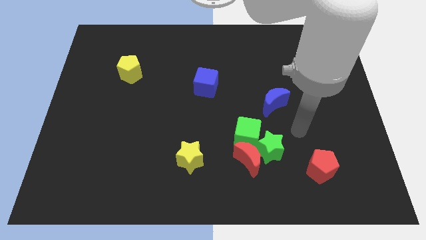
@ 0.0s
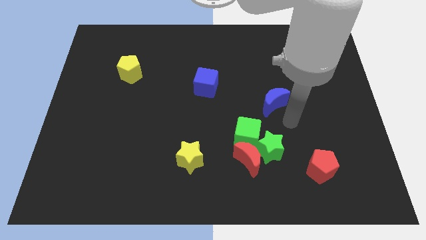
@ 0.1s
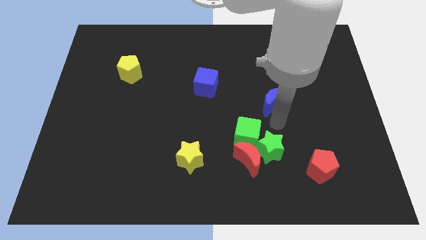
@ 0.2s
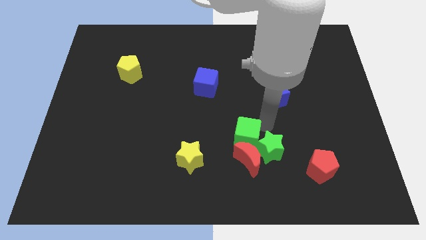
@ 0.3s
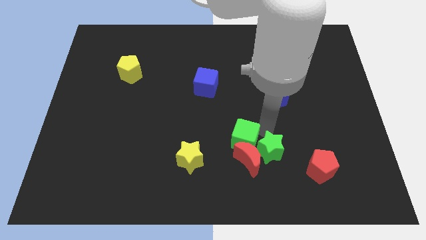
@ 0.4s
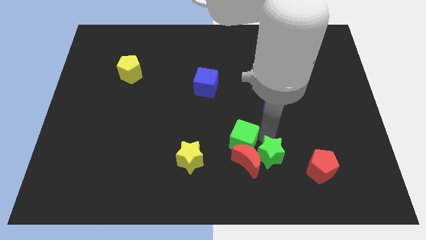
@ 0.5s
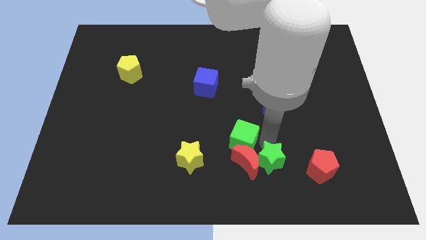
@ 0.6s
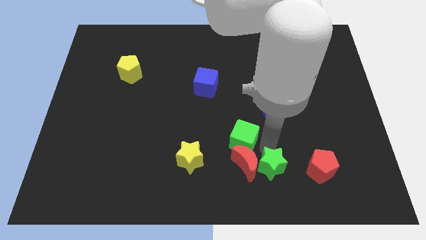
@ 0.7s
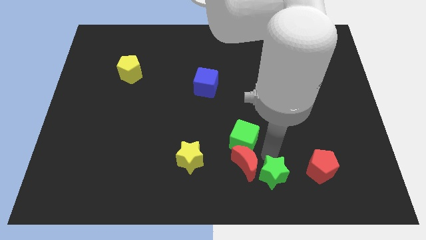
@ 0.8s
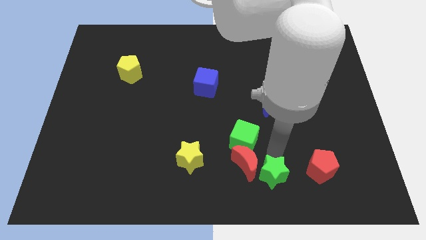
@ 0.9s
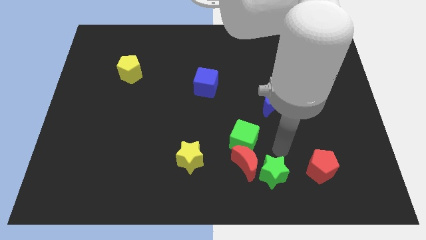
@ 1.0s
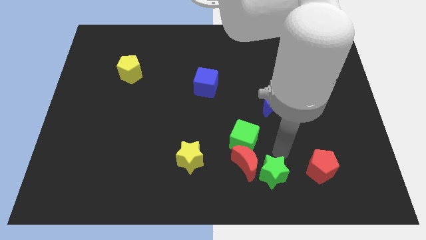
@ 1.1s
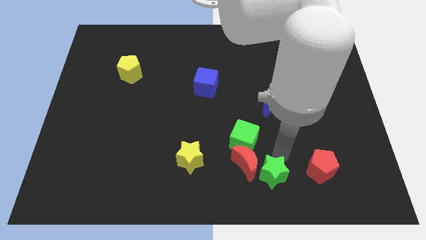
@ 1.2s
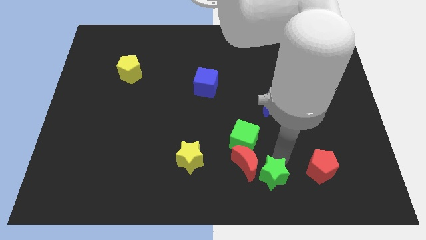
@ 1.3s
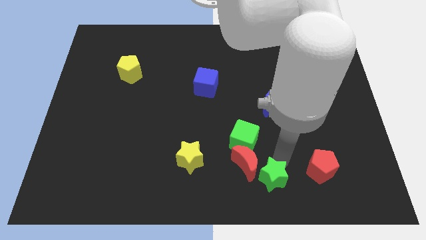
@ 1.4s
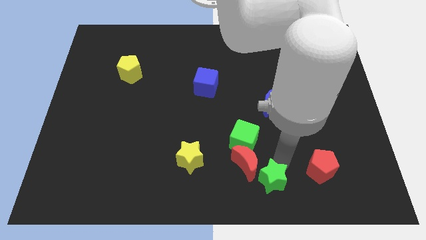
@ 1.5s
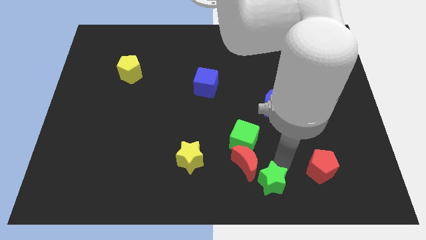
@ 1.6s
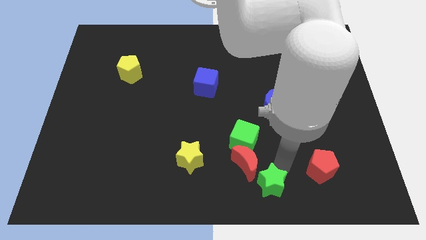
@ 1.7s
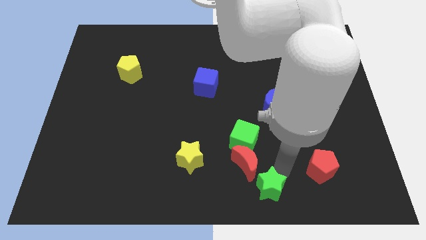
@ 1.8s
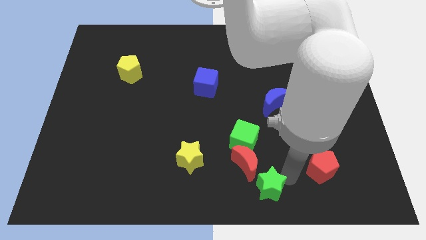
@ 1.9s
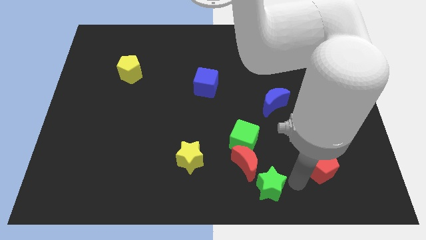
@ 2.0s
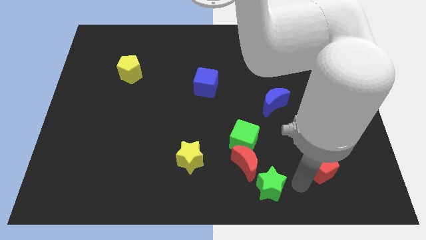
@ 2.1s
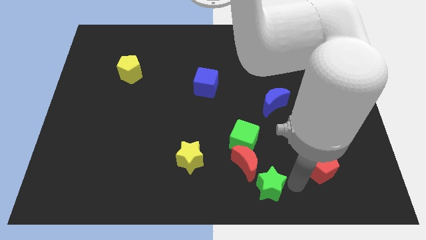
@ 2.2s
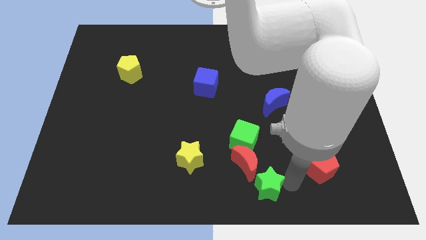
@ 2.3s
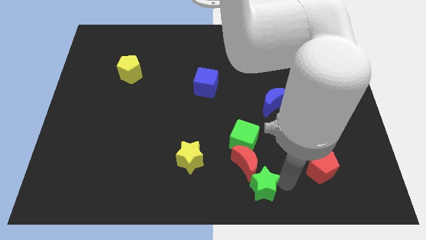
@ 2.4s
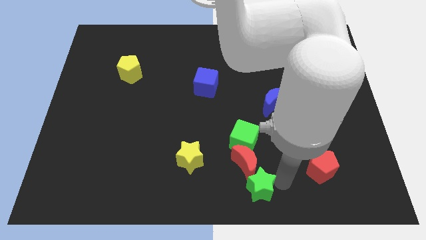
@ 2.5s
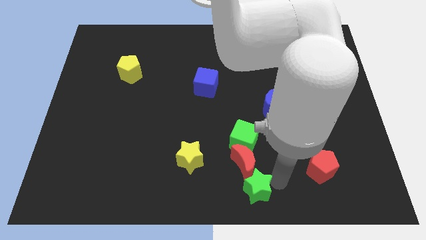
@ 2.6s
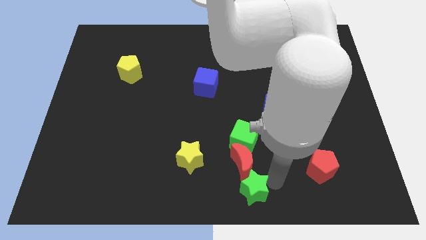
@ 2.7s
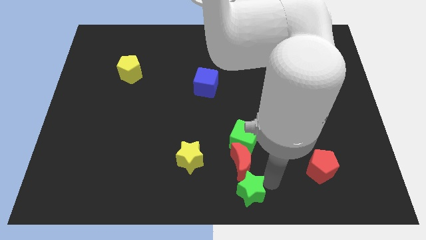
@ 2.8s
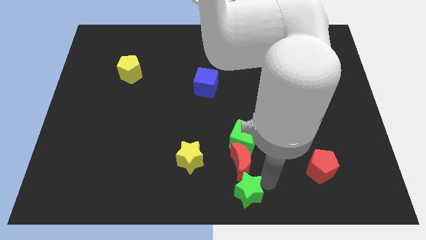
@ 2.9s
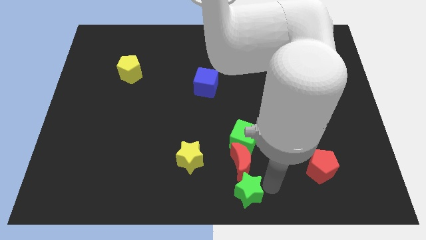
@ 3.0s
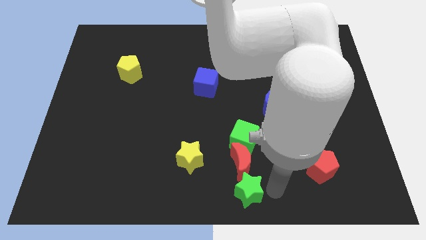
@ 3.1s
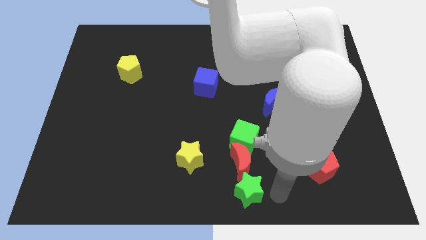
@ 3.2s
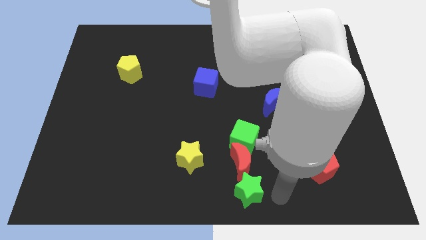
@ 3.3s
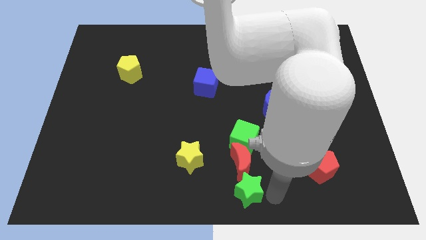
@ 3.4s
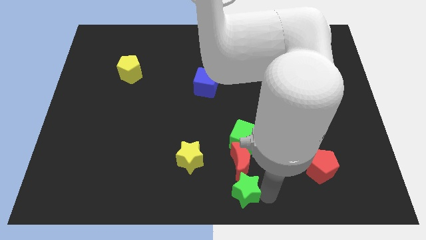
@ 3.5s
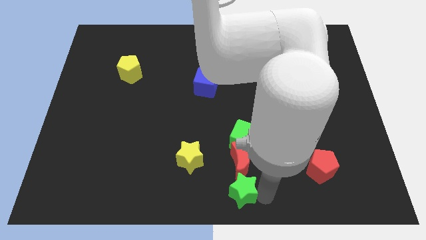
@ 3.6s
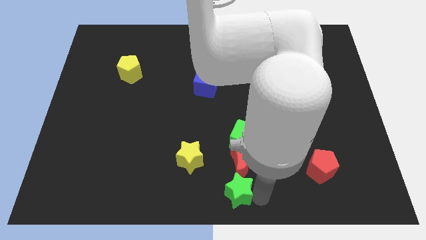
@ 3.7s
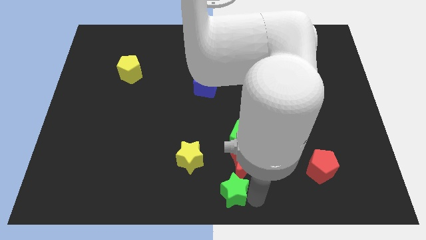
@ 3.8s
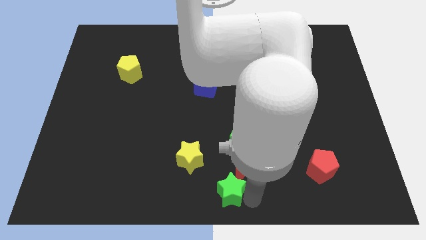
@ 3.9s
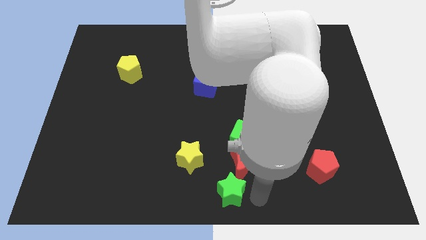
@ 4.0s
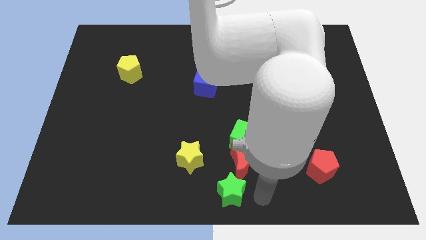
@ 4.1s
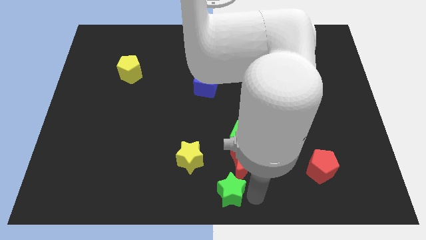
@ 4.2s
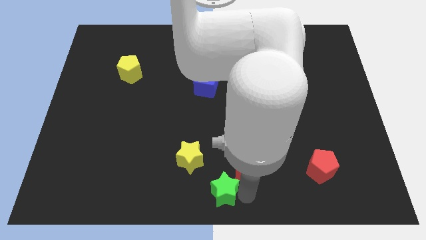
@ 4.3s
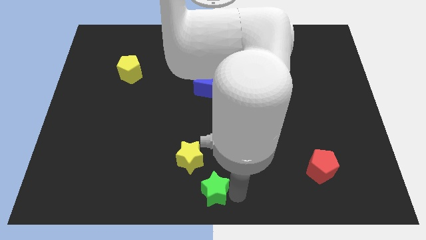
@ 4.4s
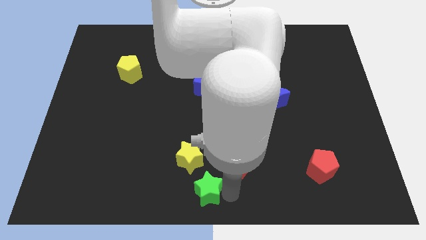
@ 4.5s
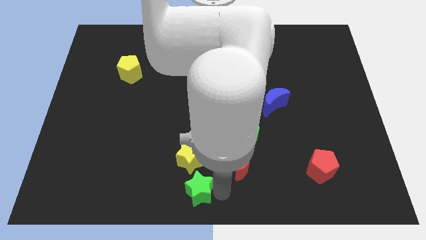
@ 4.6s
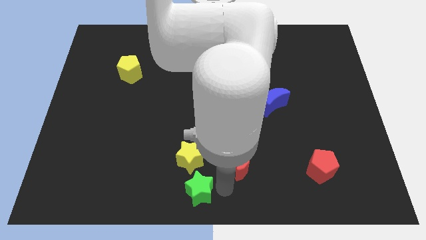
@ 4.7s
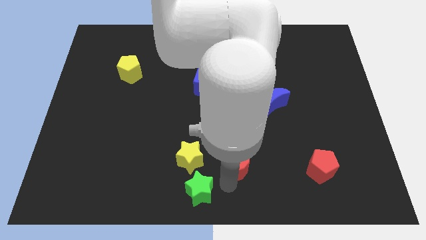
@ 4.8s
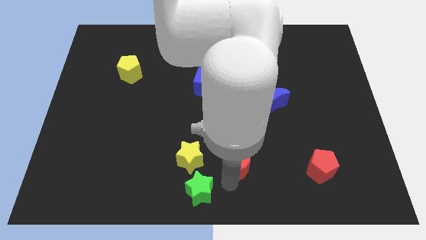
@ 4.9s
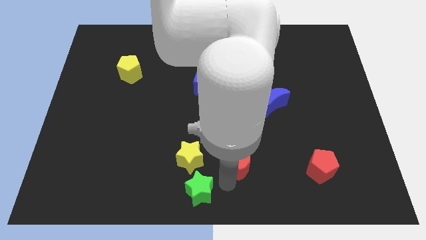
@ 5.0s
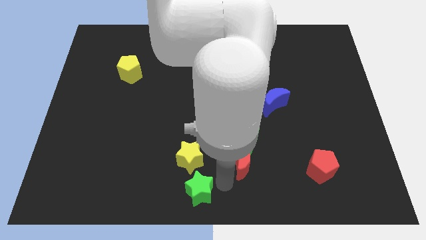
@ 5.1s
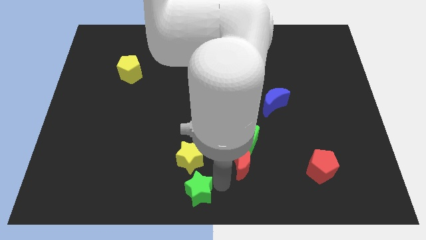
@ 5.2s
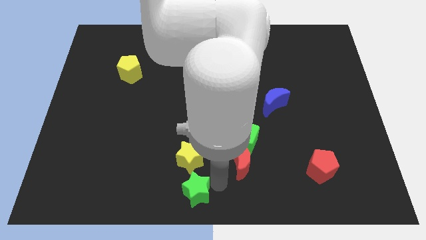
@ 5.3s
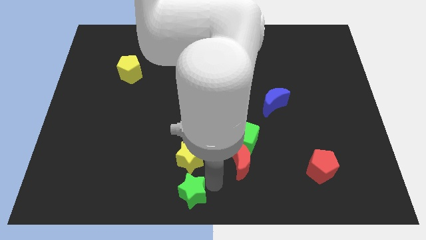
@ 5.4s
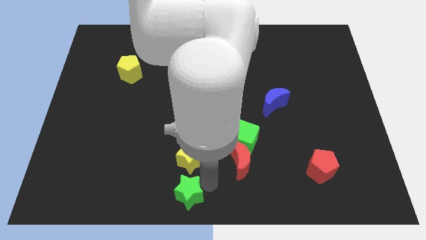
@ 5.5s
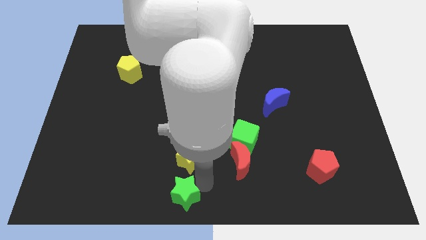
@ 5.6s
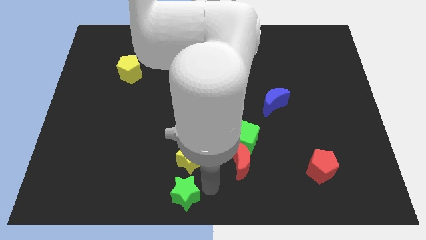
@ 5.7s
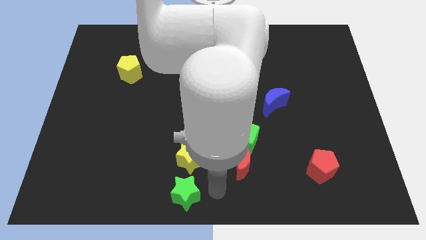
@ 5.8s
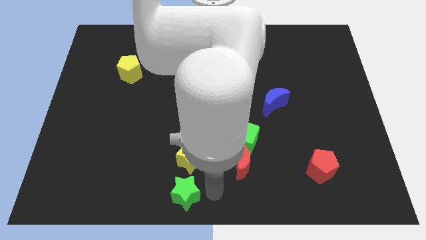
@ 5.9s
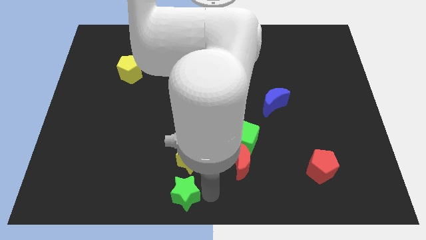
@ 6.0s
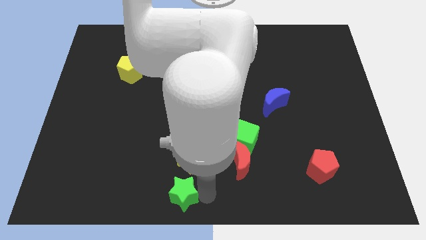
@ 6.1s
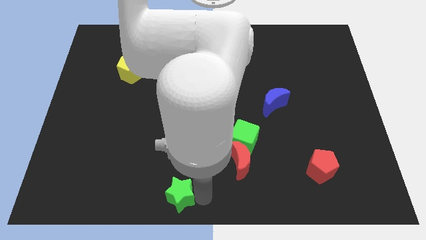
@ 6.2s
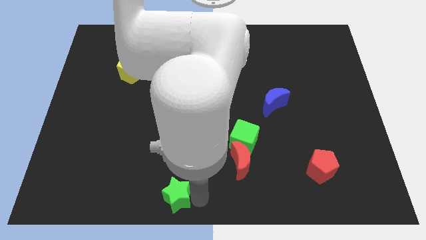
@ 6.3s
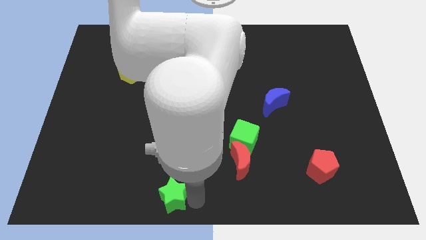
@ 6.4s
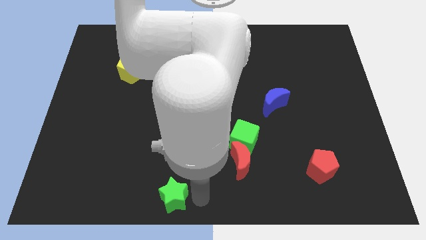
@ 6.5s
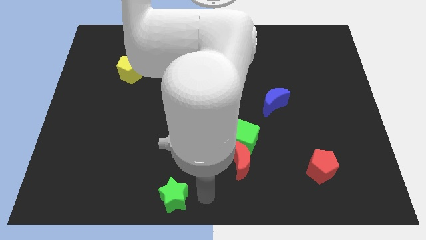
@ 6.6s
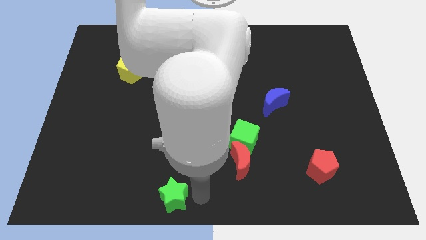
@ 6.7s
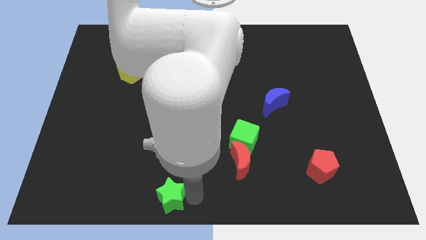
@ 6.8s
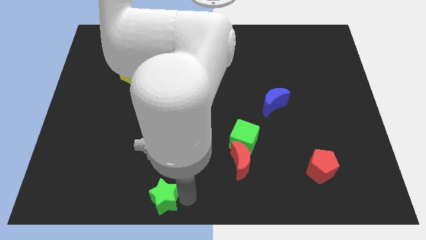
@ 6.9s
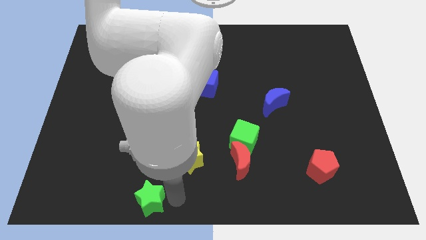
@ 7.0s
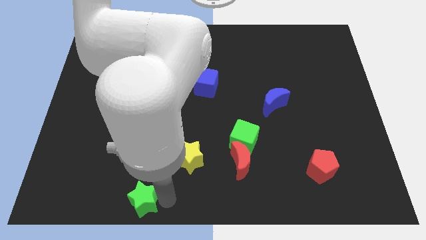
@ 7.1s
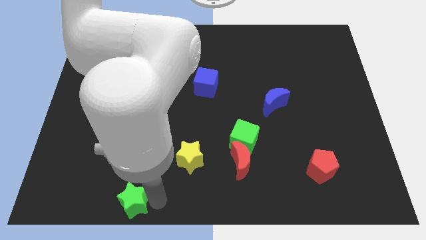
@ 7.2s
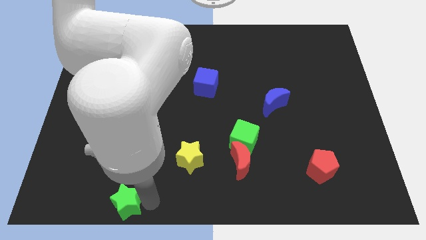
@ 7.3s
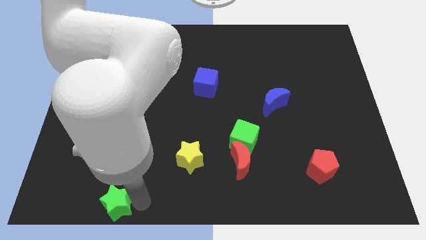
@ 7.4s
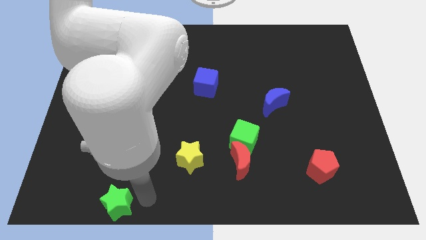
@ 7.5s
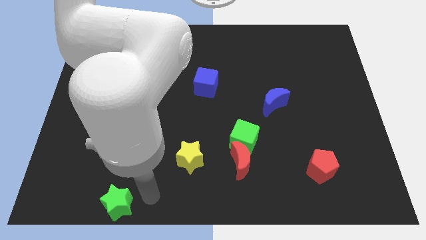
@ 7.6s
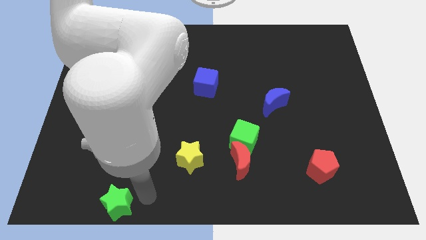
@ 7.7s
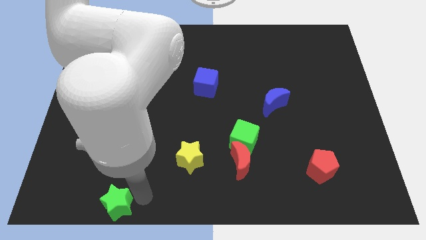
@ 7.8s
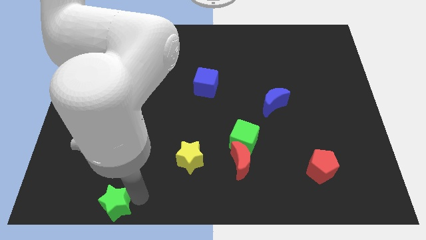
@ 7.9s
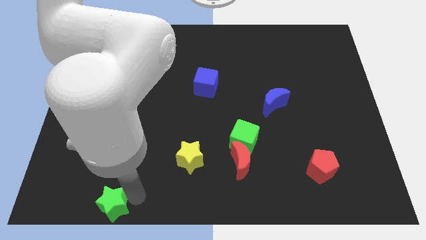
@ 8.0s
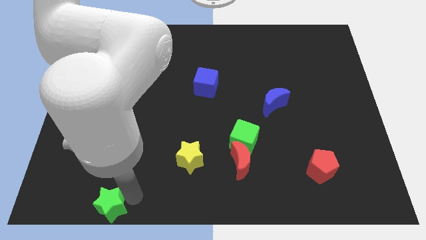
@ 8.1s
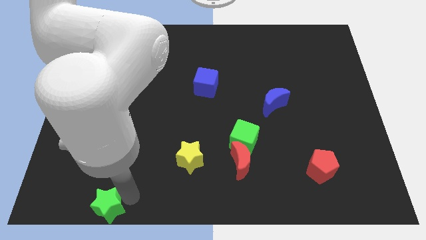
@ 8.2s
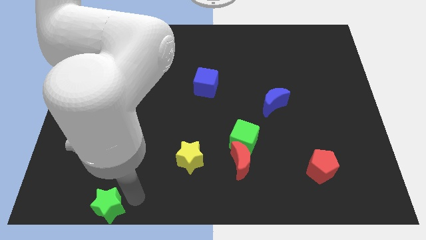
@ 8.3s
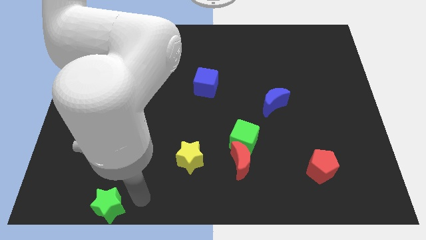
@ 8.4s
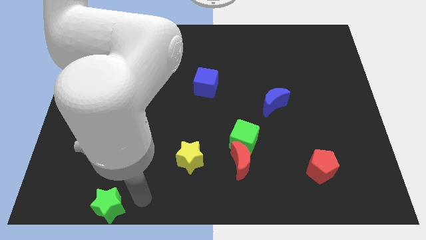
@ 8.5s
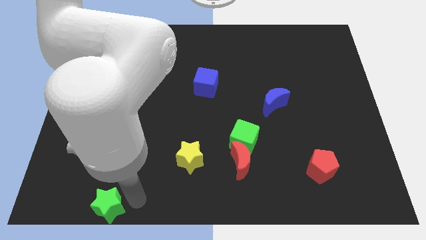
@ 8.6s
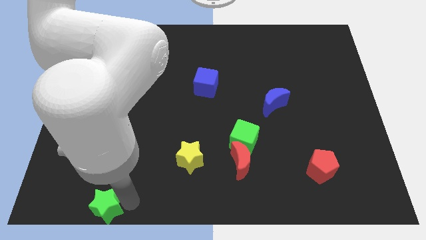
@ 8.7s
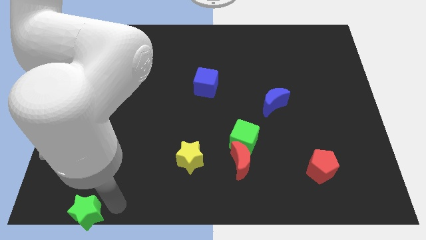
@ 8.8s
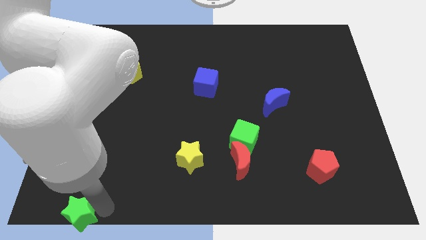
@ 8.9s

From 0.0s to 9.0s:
move the green star to the bottom left
